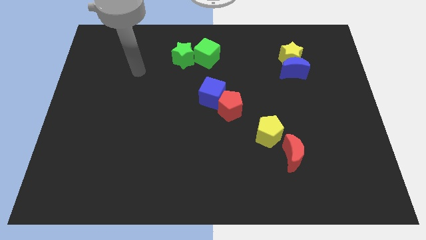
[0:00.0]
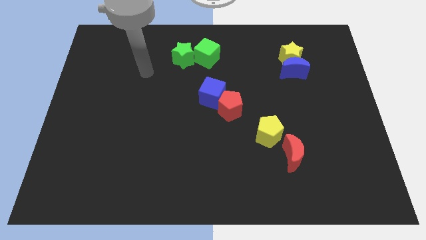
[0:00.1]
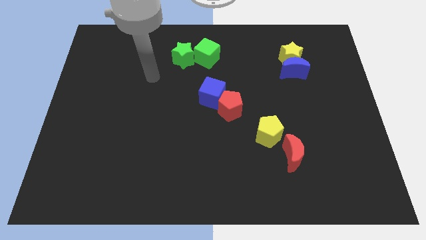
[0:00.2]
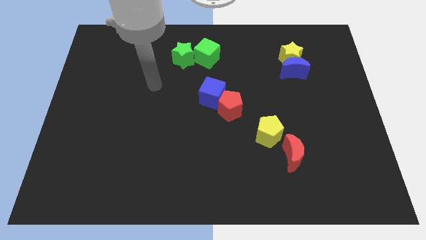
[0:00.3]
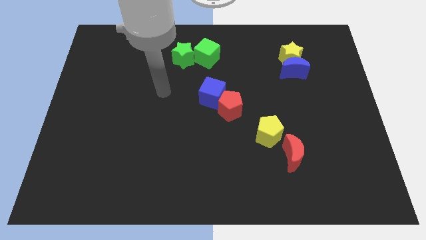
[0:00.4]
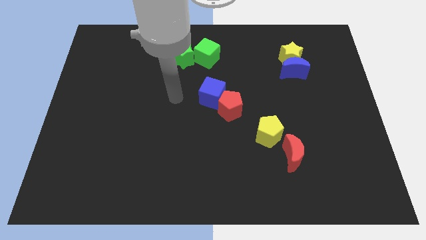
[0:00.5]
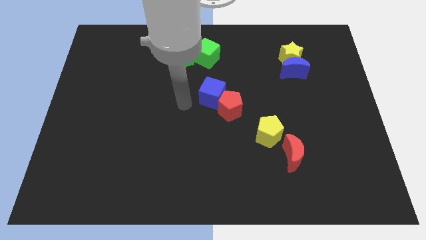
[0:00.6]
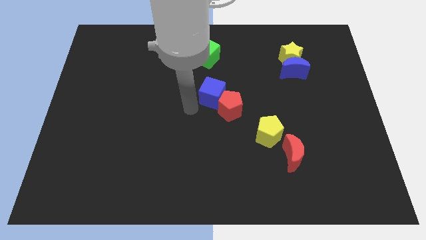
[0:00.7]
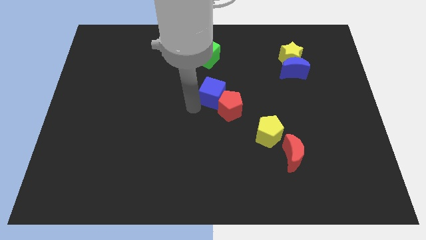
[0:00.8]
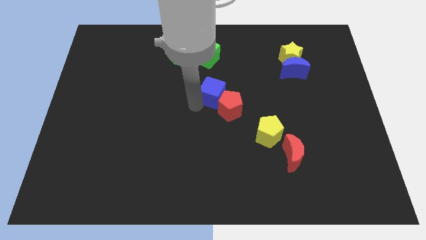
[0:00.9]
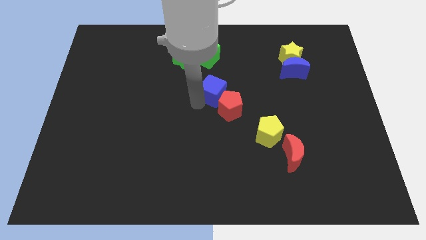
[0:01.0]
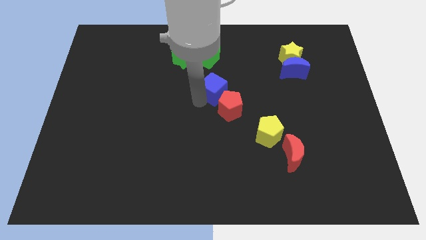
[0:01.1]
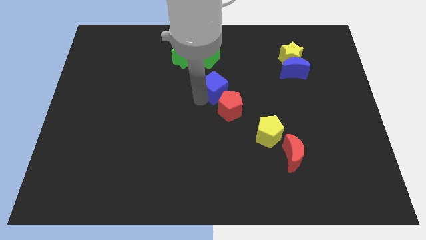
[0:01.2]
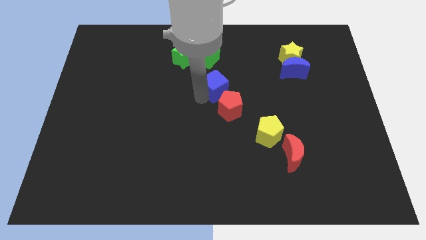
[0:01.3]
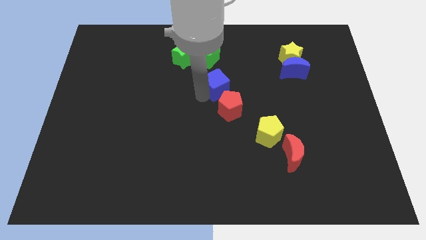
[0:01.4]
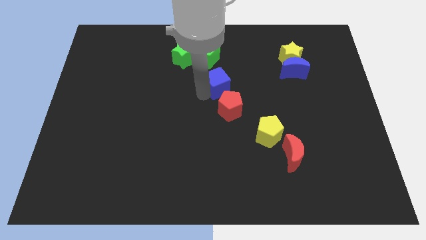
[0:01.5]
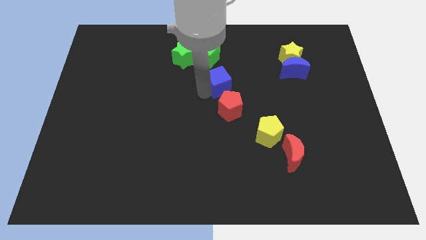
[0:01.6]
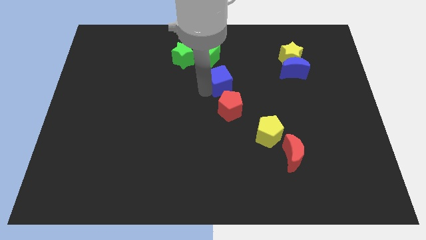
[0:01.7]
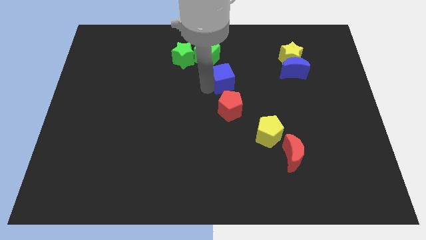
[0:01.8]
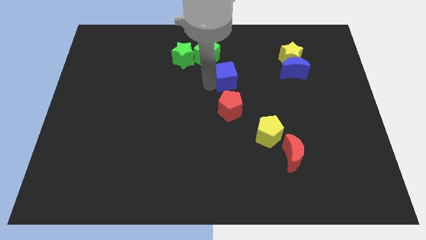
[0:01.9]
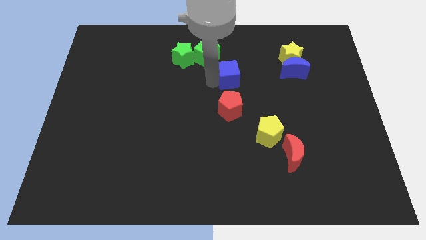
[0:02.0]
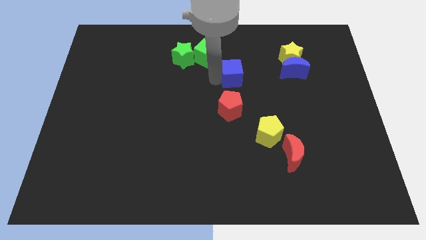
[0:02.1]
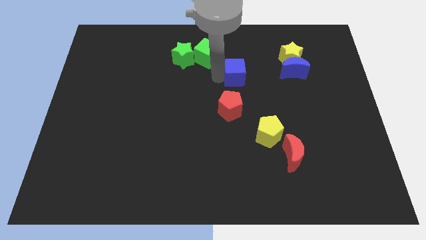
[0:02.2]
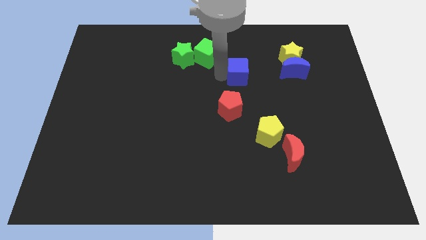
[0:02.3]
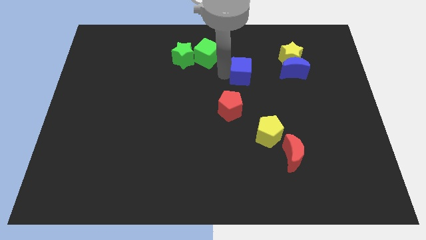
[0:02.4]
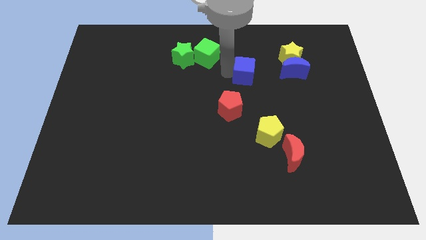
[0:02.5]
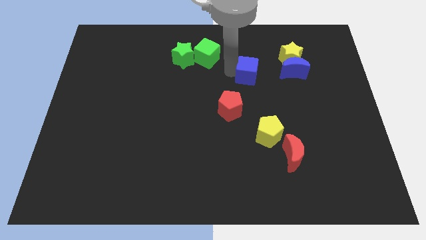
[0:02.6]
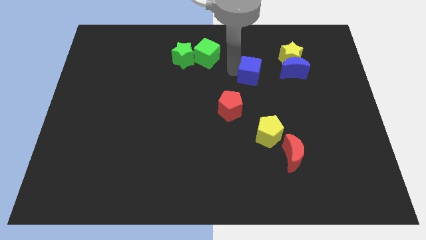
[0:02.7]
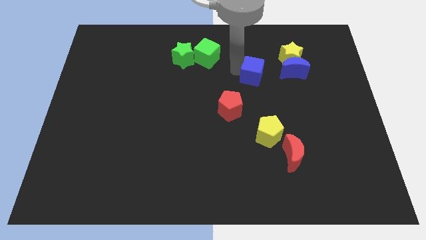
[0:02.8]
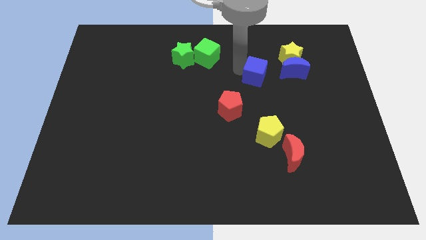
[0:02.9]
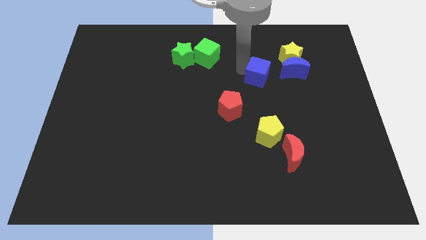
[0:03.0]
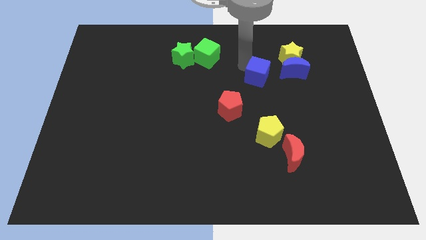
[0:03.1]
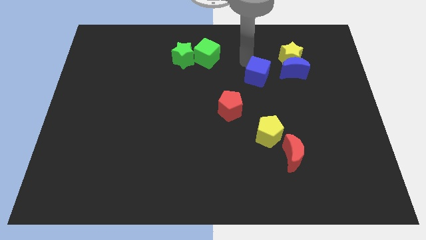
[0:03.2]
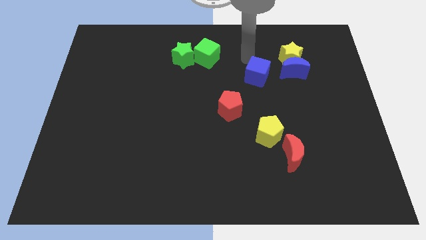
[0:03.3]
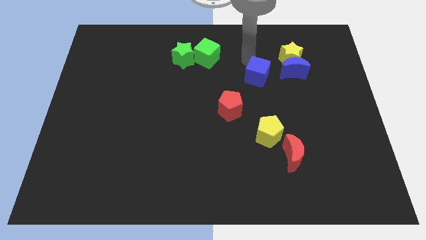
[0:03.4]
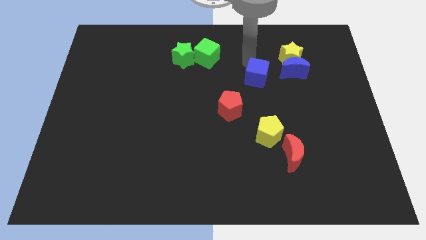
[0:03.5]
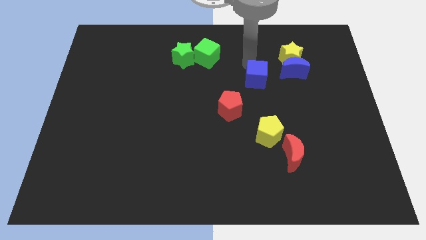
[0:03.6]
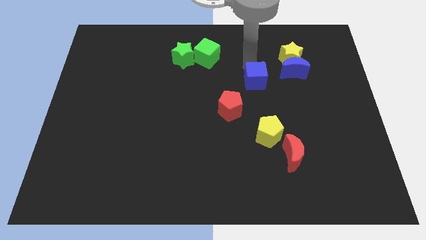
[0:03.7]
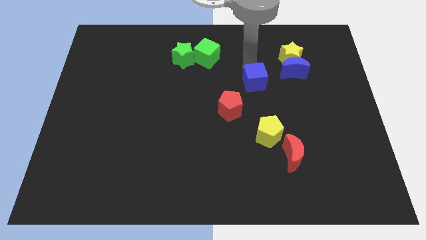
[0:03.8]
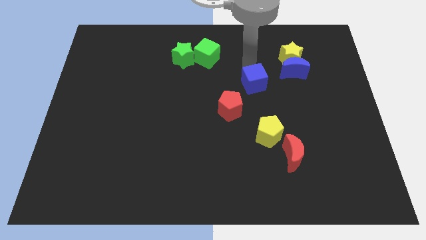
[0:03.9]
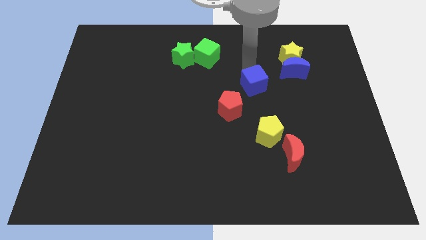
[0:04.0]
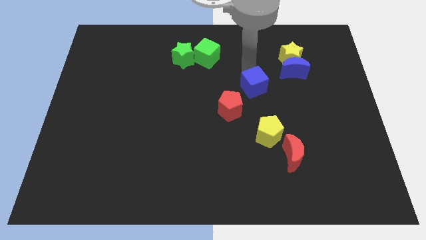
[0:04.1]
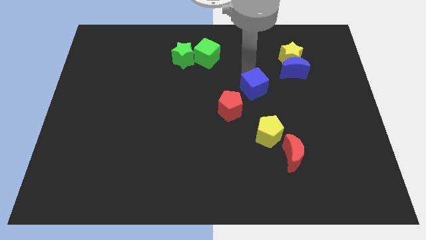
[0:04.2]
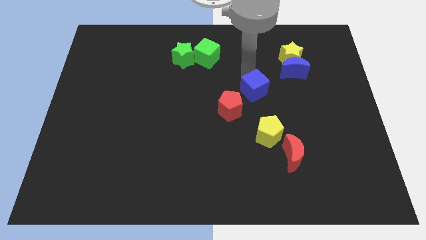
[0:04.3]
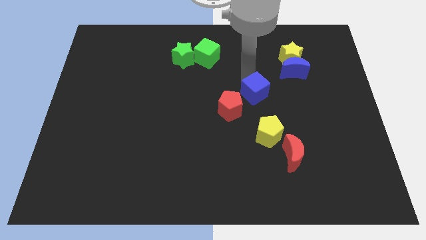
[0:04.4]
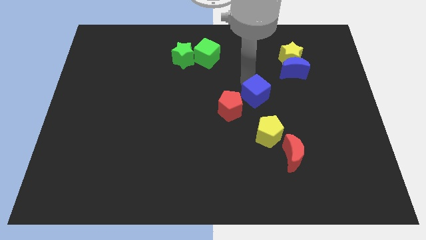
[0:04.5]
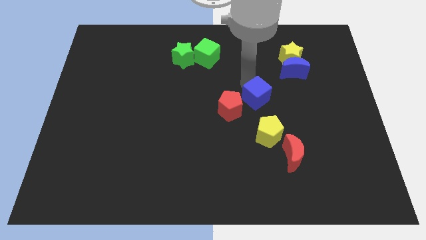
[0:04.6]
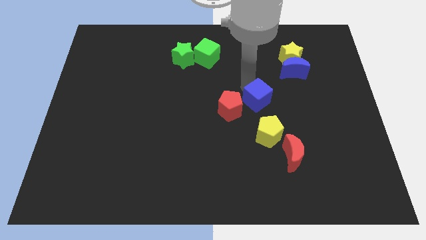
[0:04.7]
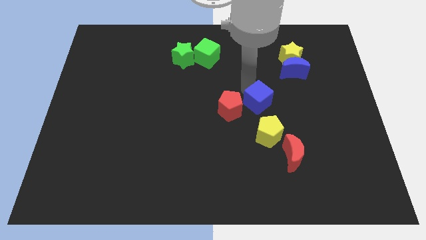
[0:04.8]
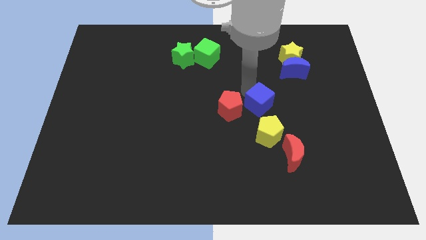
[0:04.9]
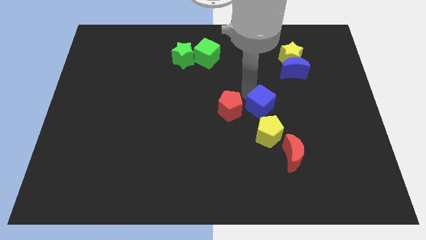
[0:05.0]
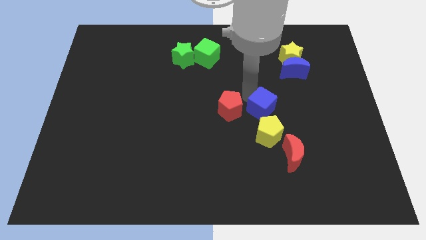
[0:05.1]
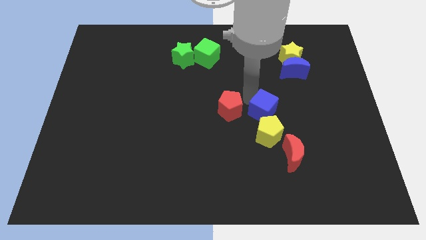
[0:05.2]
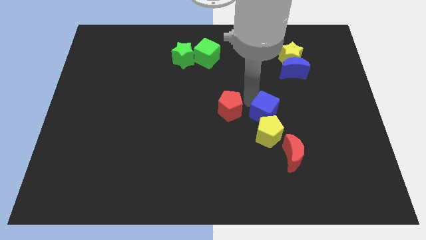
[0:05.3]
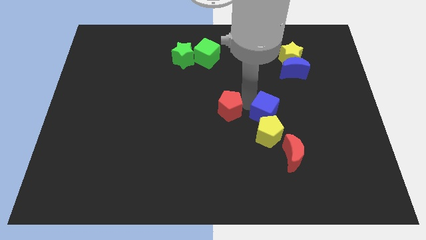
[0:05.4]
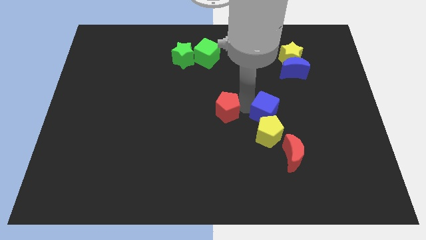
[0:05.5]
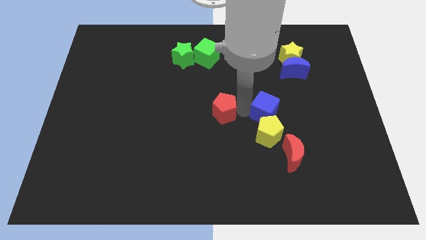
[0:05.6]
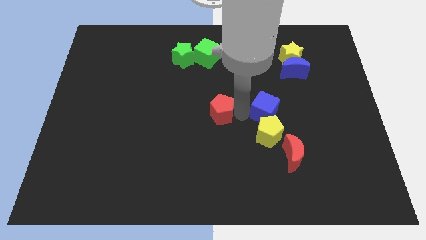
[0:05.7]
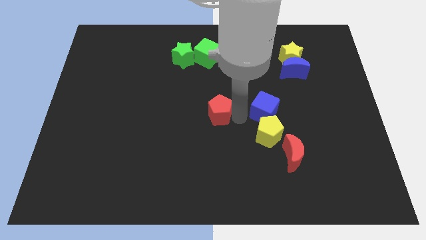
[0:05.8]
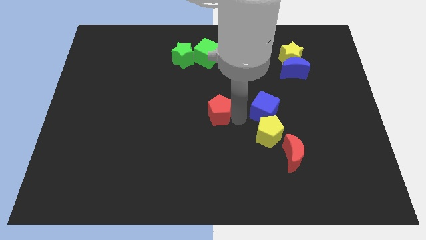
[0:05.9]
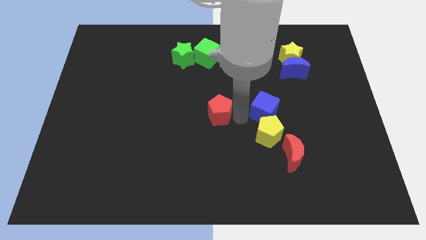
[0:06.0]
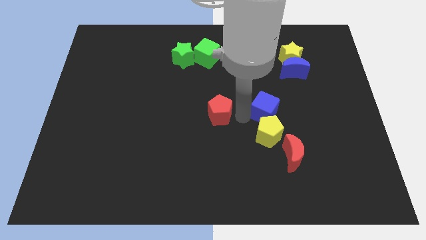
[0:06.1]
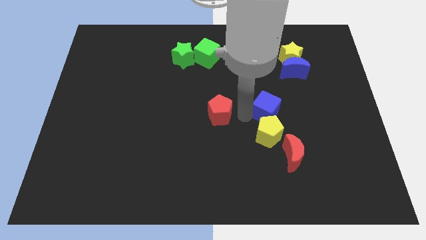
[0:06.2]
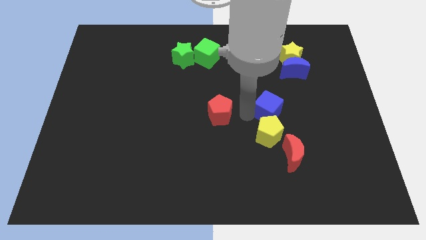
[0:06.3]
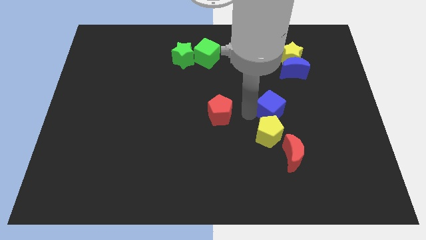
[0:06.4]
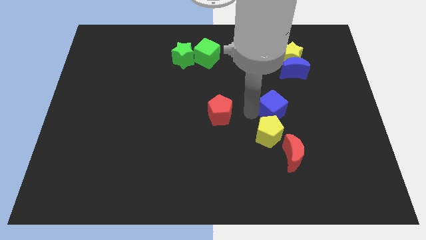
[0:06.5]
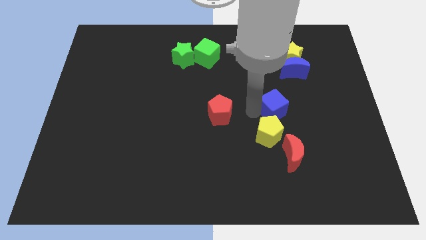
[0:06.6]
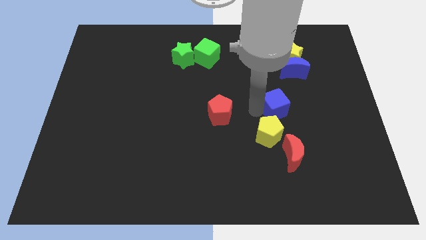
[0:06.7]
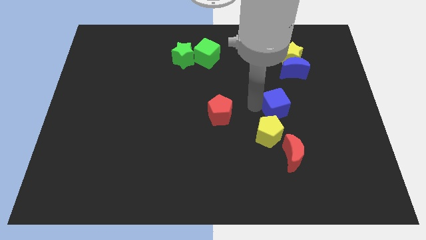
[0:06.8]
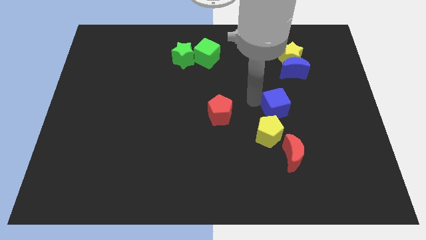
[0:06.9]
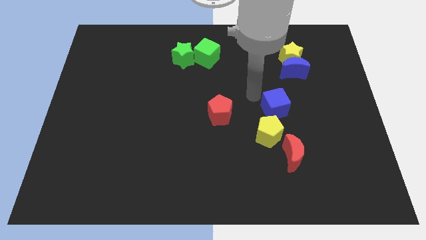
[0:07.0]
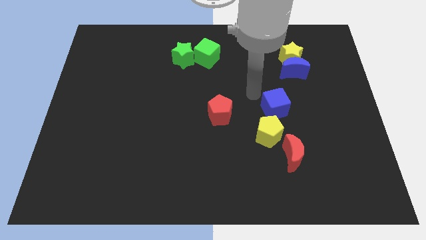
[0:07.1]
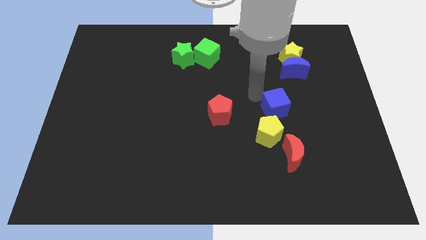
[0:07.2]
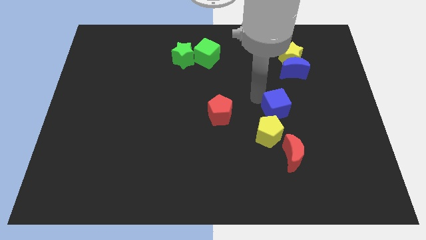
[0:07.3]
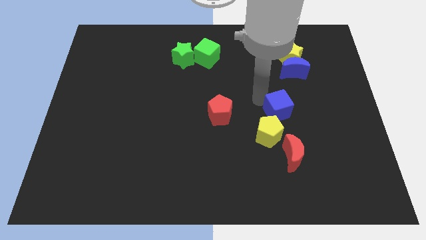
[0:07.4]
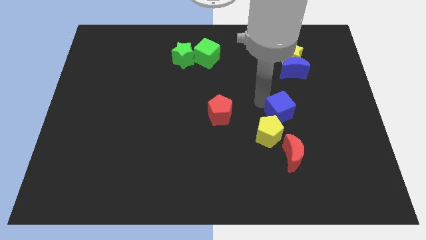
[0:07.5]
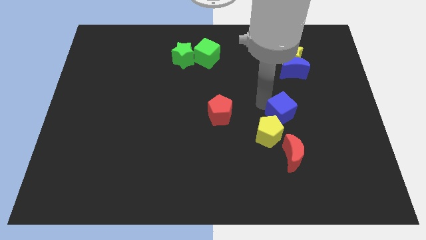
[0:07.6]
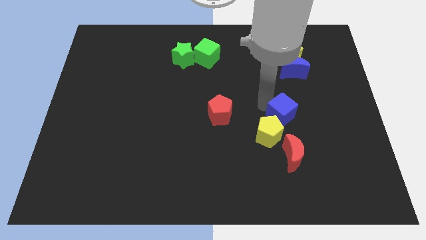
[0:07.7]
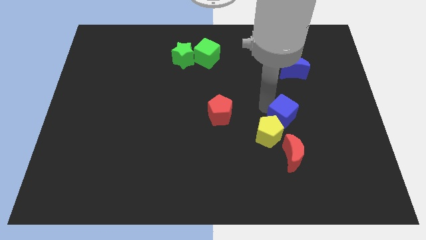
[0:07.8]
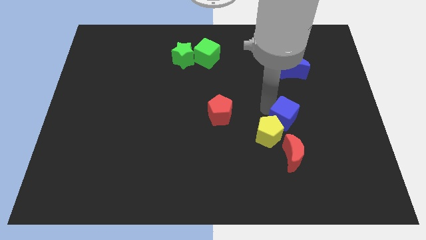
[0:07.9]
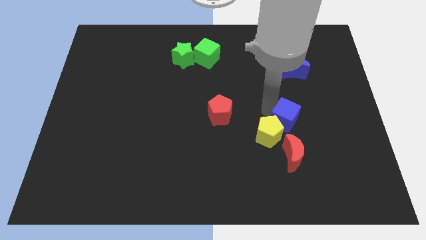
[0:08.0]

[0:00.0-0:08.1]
move the blue cube right of the yellow pentagon
